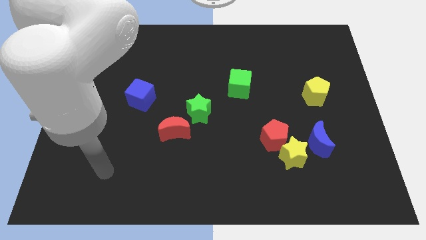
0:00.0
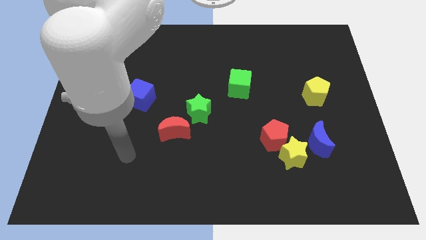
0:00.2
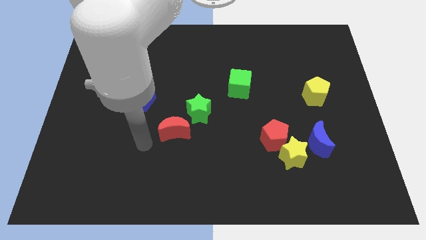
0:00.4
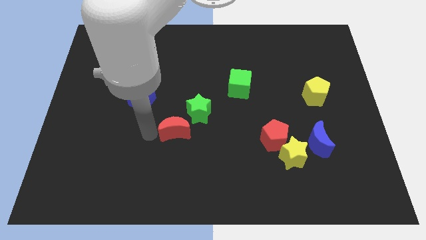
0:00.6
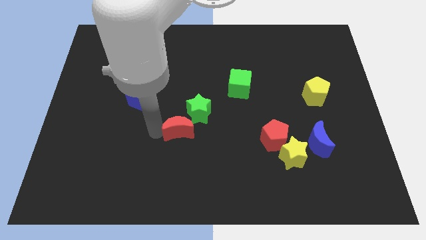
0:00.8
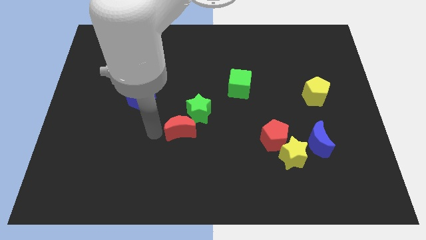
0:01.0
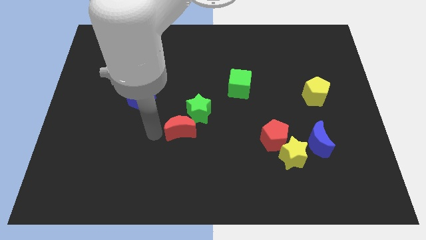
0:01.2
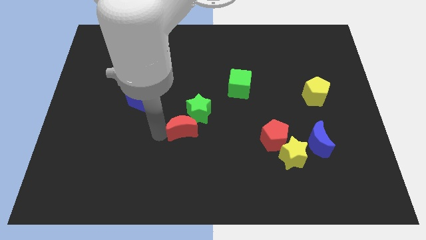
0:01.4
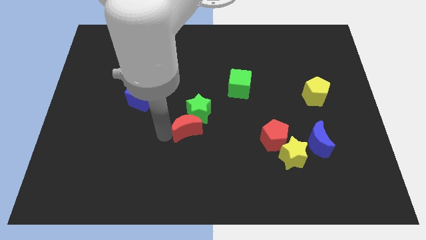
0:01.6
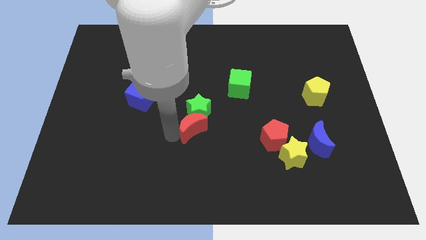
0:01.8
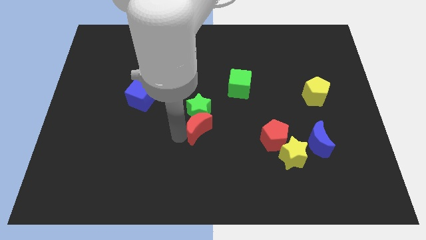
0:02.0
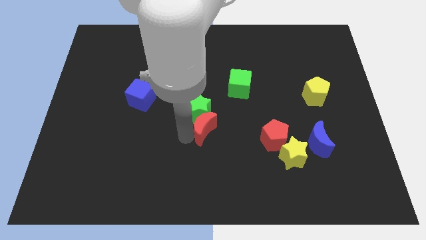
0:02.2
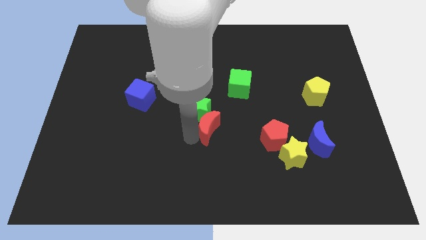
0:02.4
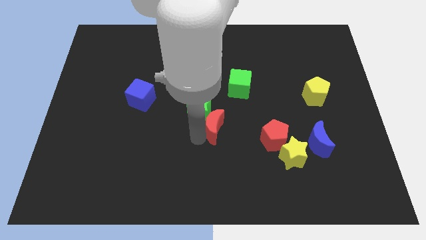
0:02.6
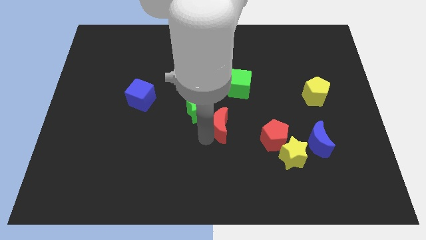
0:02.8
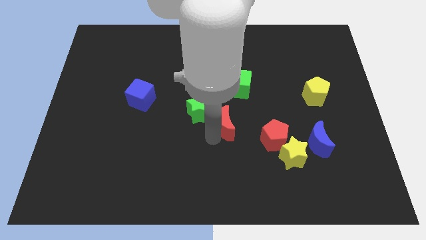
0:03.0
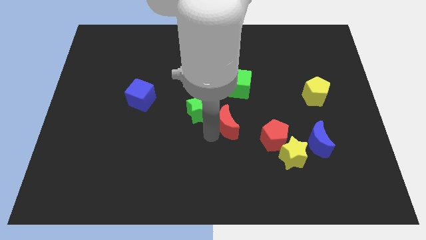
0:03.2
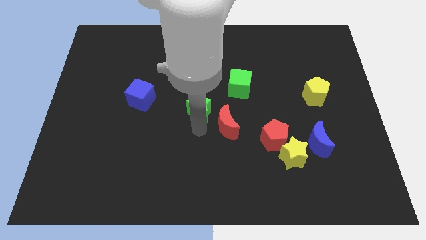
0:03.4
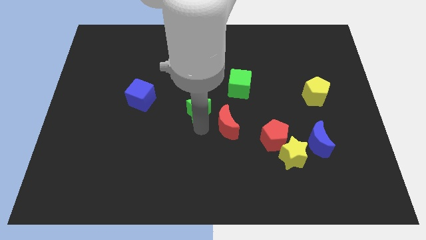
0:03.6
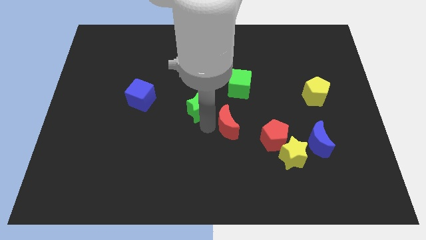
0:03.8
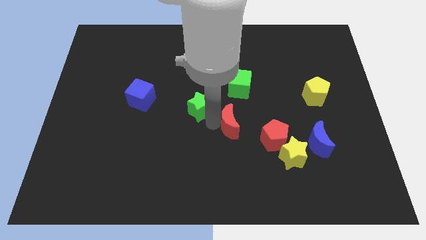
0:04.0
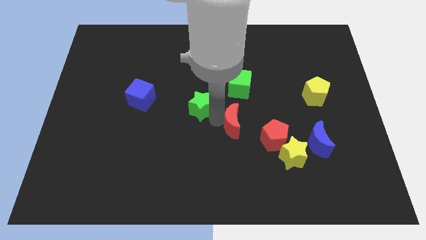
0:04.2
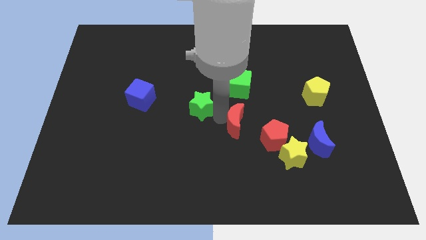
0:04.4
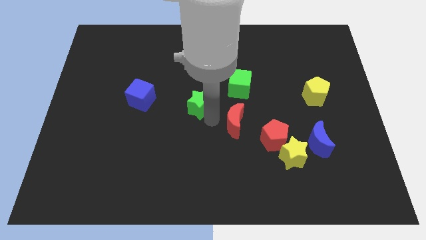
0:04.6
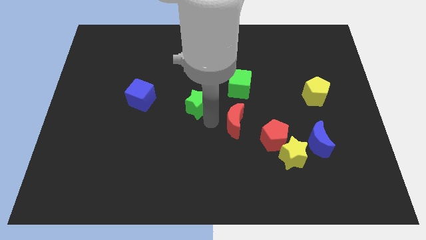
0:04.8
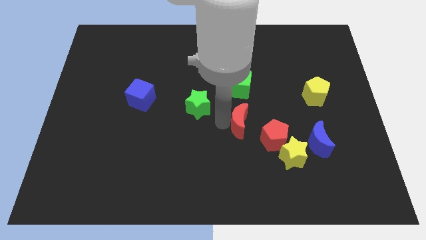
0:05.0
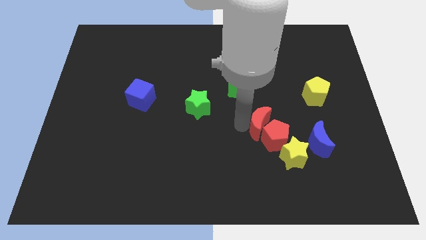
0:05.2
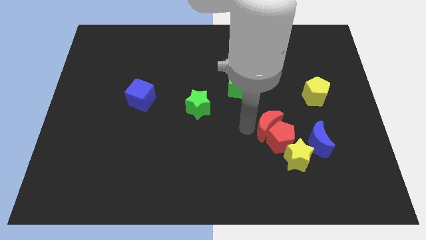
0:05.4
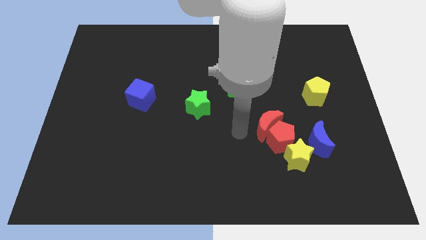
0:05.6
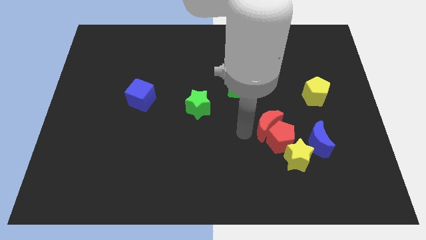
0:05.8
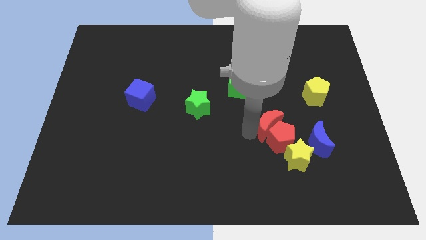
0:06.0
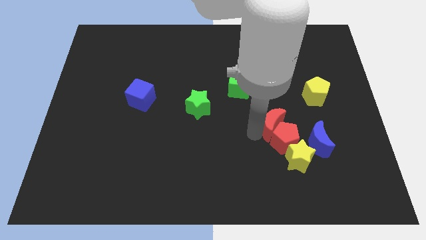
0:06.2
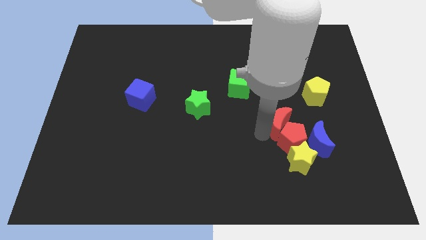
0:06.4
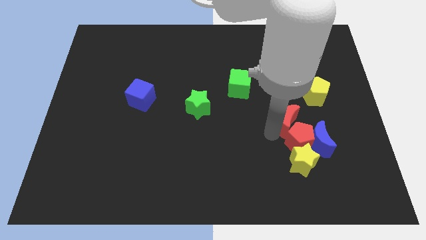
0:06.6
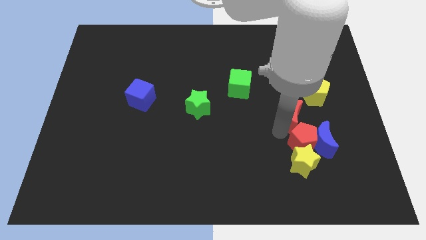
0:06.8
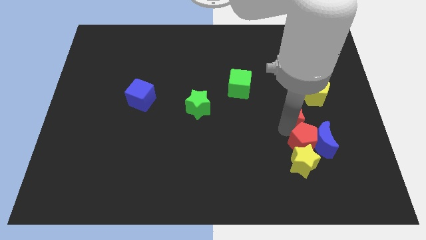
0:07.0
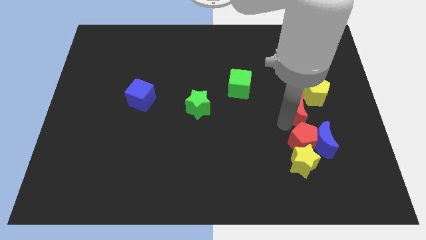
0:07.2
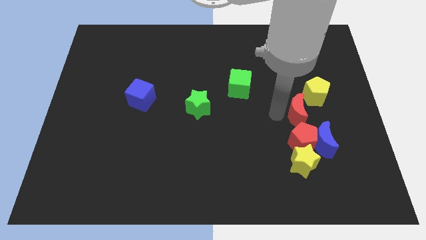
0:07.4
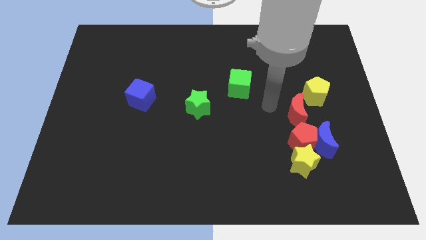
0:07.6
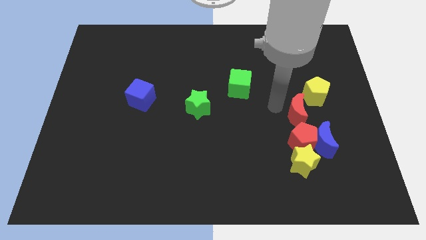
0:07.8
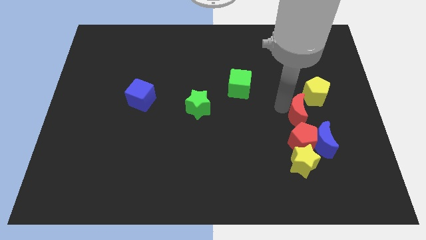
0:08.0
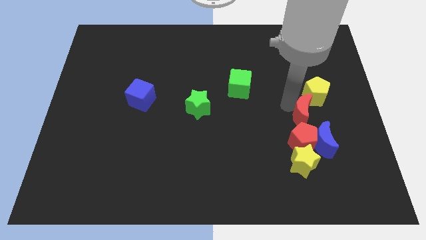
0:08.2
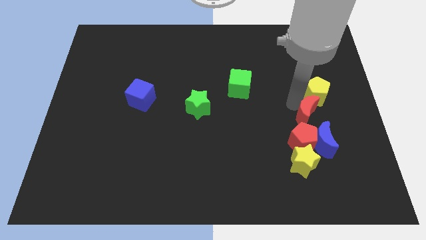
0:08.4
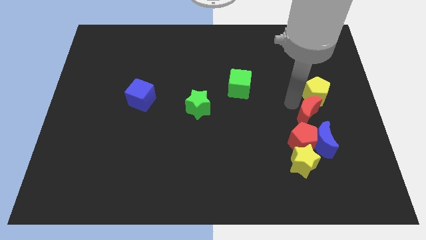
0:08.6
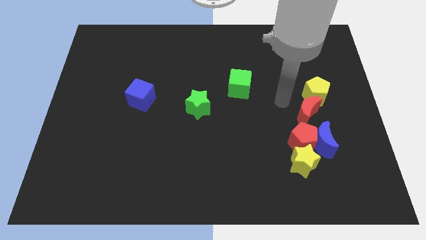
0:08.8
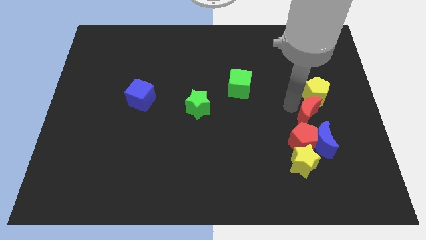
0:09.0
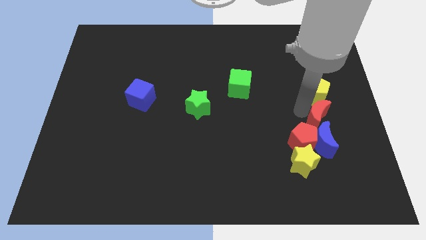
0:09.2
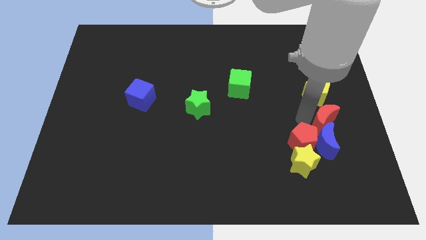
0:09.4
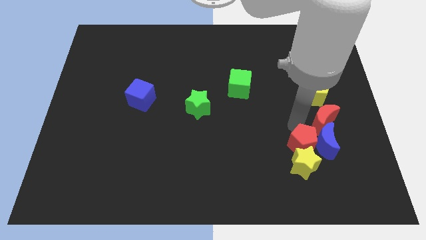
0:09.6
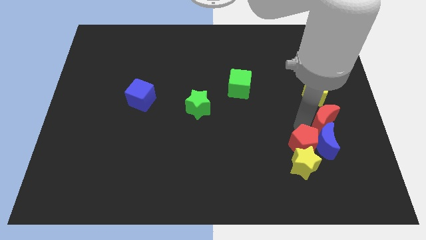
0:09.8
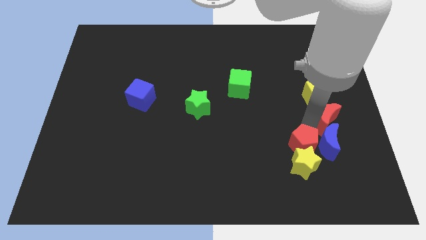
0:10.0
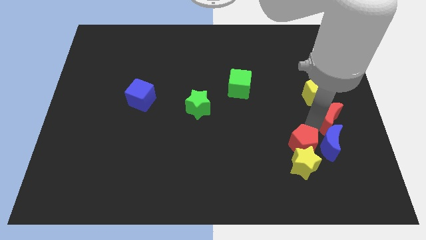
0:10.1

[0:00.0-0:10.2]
put the red moon to the right side
